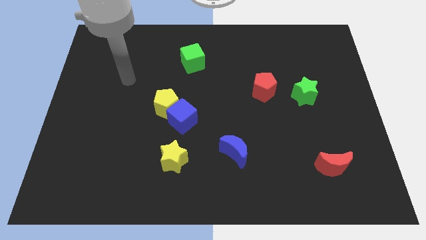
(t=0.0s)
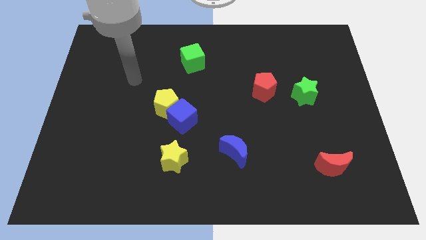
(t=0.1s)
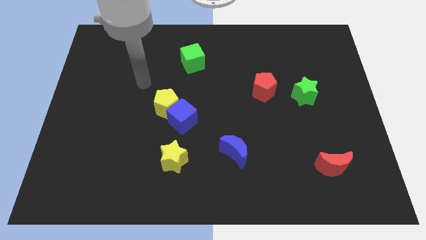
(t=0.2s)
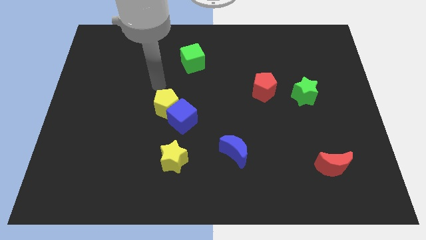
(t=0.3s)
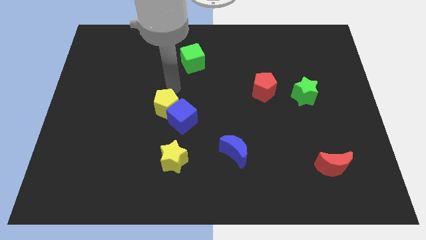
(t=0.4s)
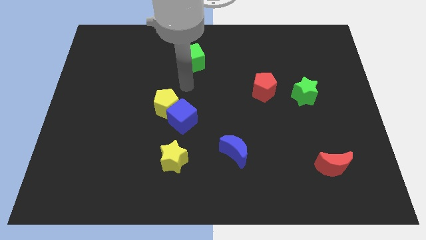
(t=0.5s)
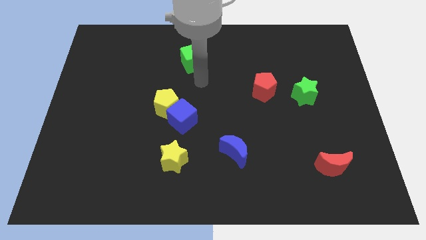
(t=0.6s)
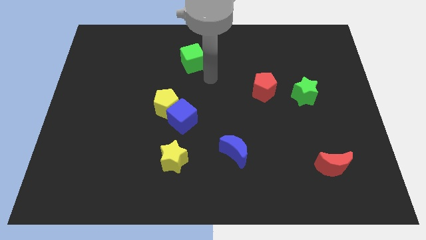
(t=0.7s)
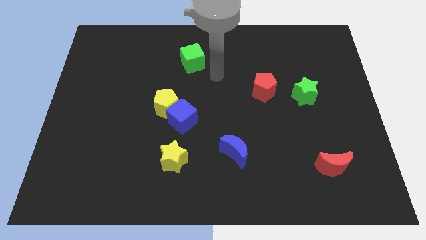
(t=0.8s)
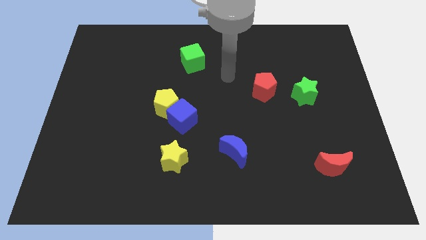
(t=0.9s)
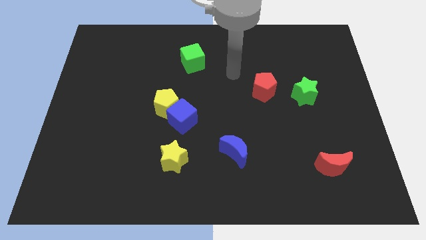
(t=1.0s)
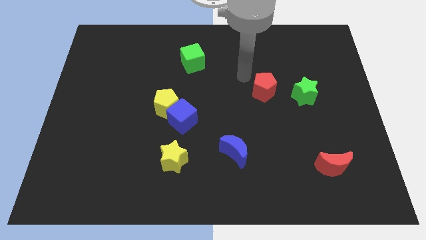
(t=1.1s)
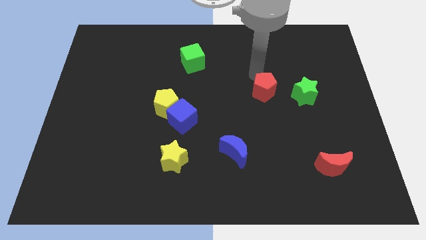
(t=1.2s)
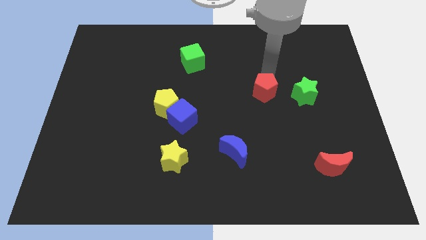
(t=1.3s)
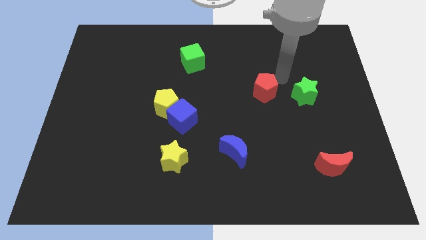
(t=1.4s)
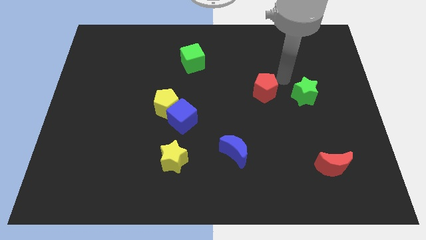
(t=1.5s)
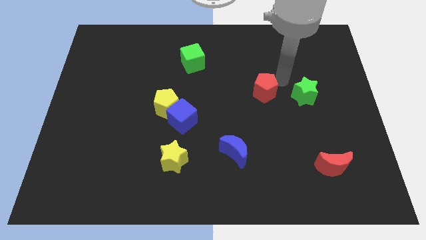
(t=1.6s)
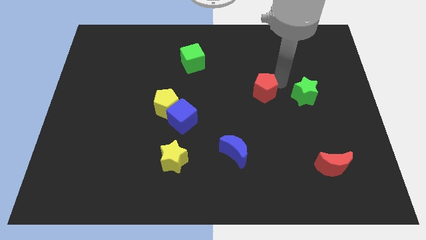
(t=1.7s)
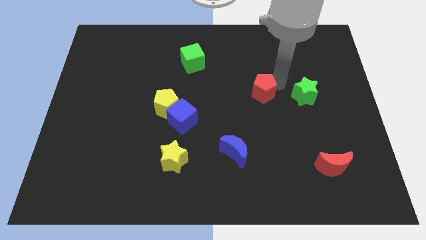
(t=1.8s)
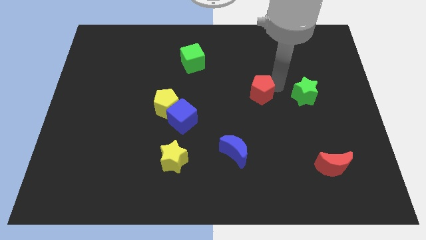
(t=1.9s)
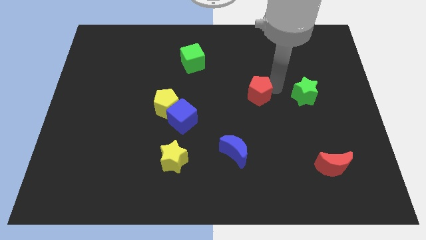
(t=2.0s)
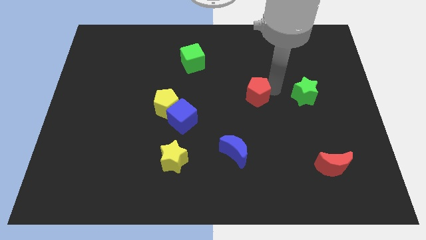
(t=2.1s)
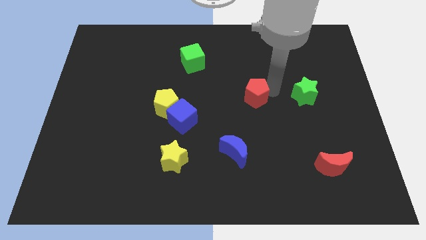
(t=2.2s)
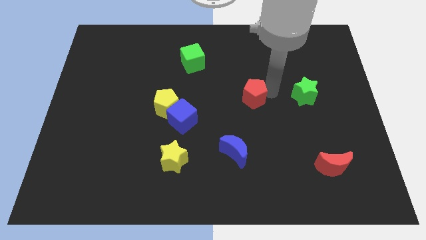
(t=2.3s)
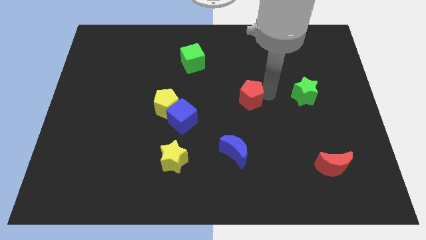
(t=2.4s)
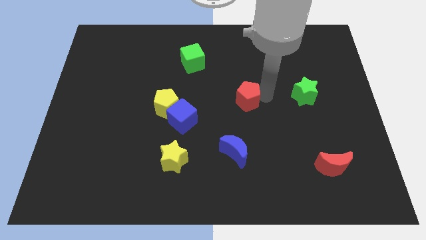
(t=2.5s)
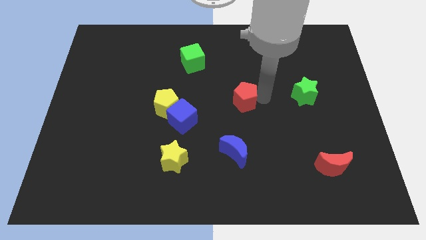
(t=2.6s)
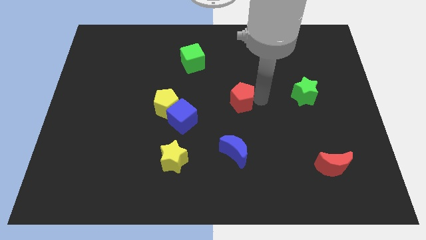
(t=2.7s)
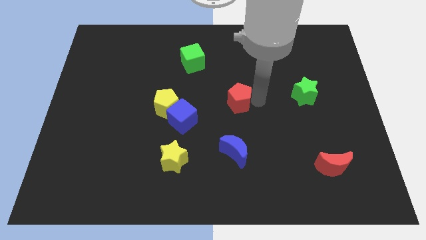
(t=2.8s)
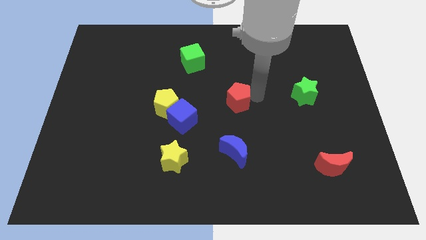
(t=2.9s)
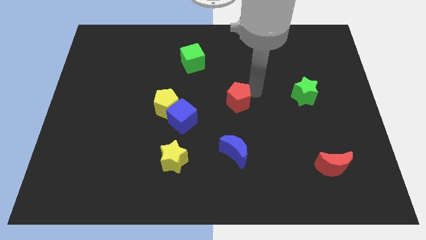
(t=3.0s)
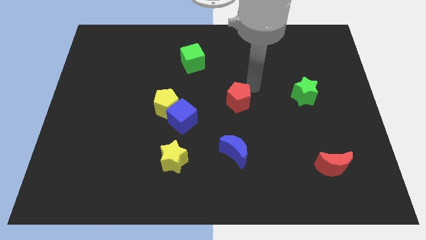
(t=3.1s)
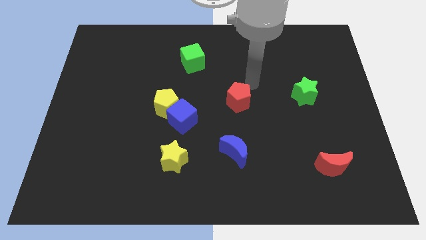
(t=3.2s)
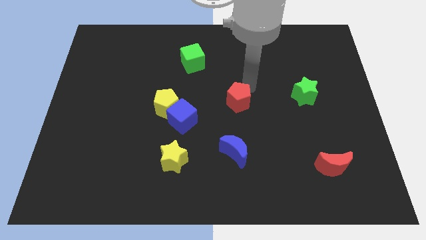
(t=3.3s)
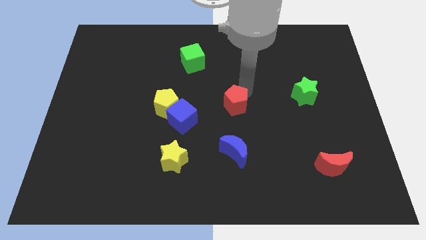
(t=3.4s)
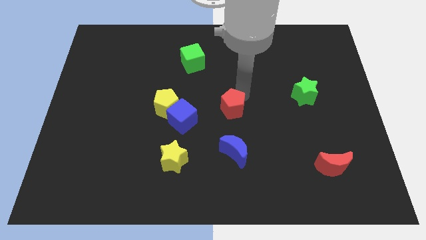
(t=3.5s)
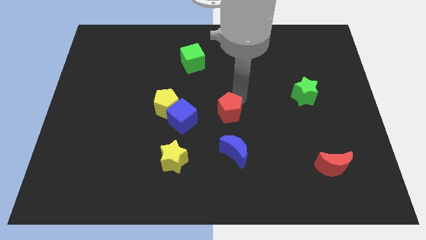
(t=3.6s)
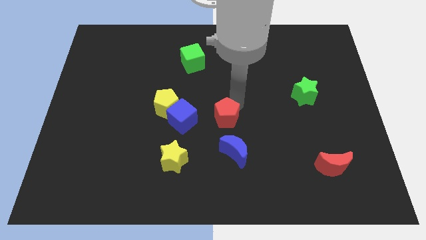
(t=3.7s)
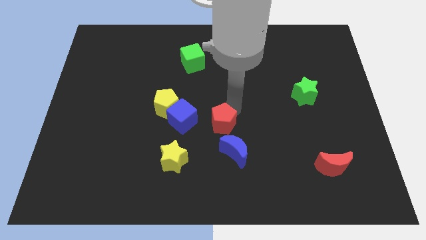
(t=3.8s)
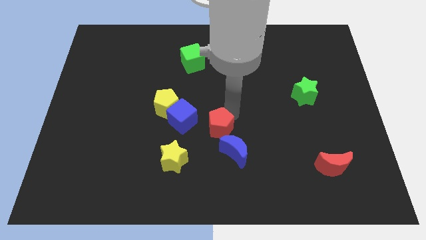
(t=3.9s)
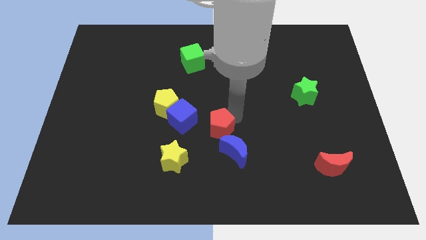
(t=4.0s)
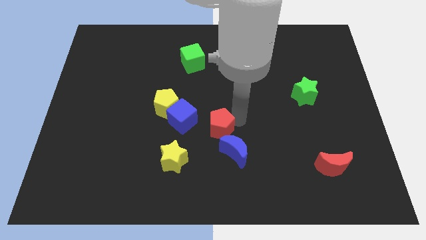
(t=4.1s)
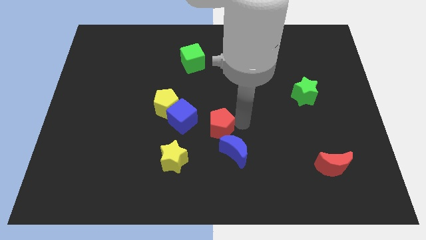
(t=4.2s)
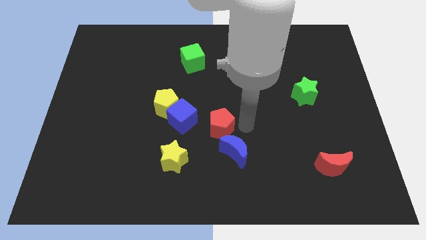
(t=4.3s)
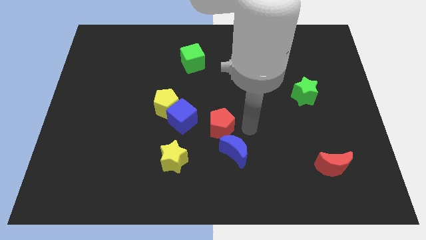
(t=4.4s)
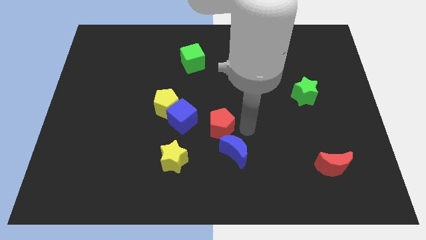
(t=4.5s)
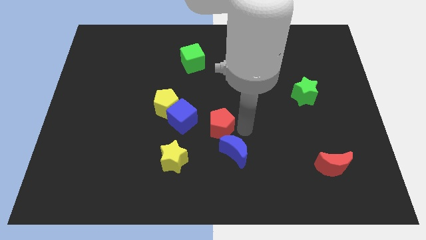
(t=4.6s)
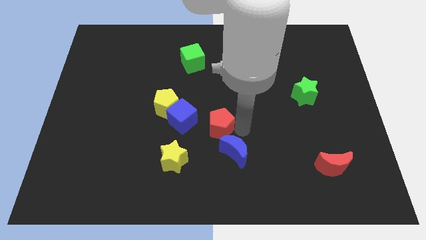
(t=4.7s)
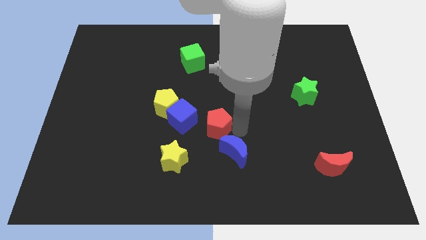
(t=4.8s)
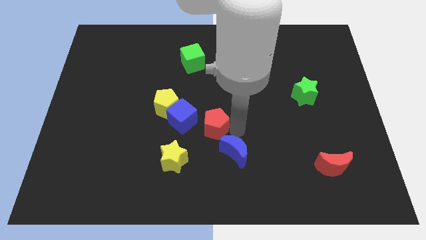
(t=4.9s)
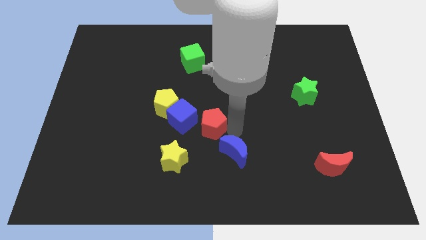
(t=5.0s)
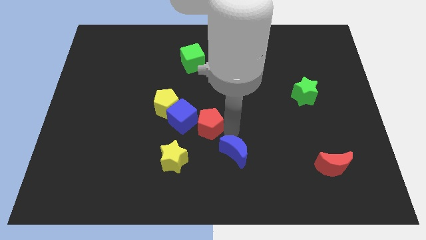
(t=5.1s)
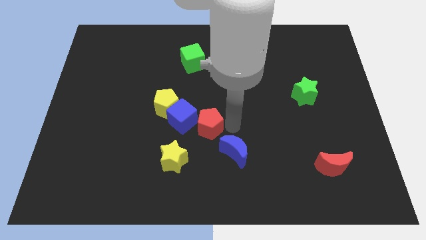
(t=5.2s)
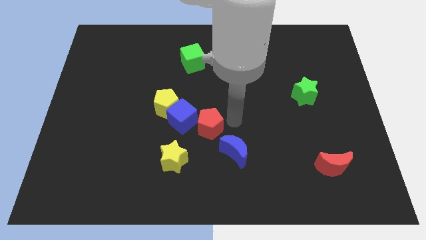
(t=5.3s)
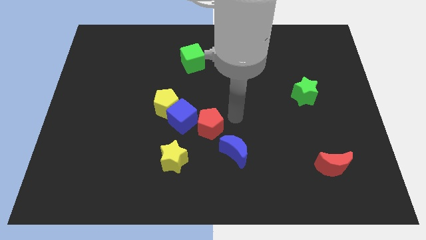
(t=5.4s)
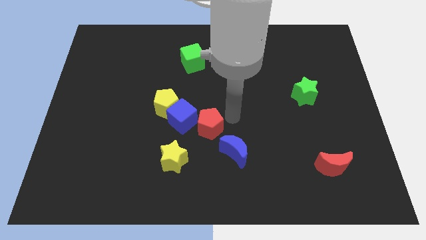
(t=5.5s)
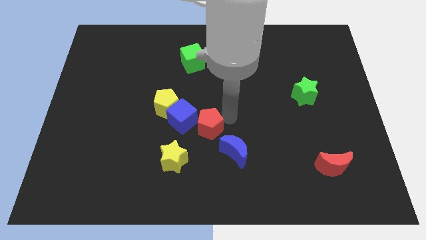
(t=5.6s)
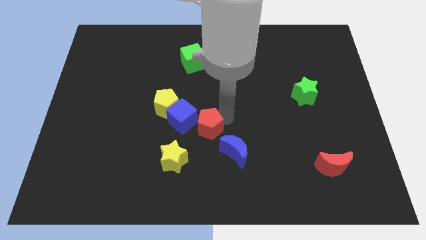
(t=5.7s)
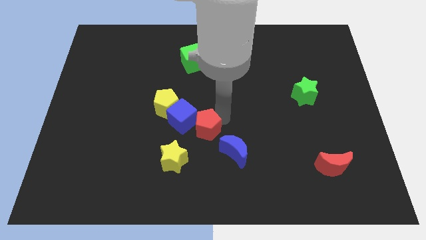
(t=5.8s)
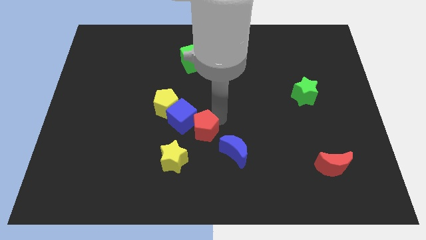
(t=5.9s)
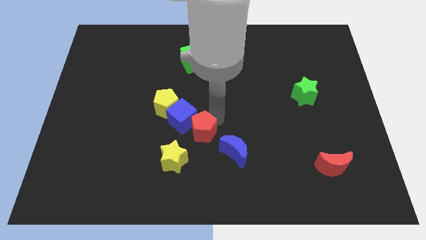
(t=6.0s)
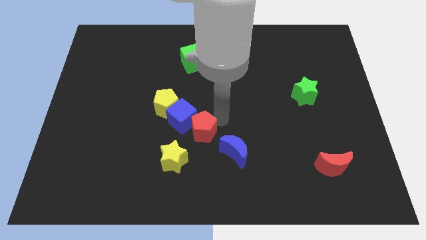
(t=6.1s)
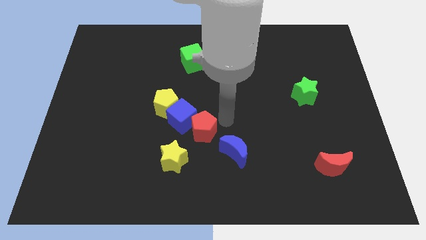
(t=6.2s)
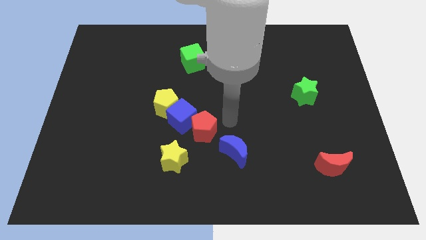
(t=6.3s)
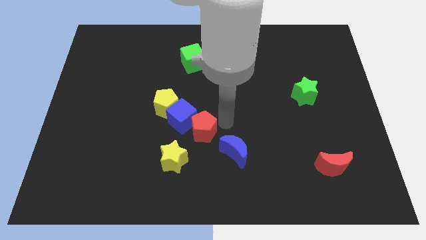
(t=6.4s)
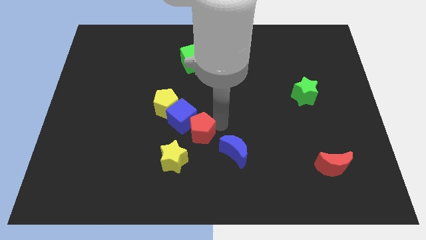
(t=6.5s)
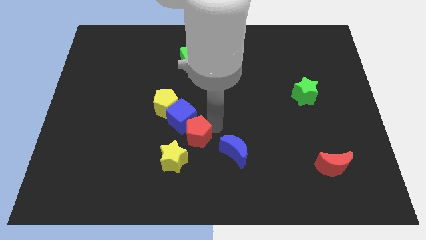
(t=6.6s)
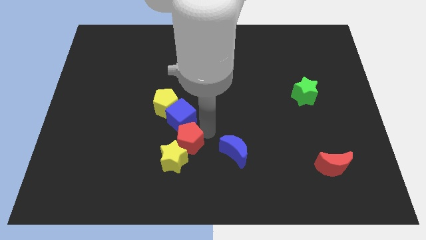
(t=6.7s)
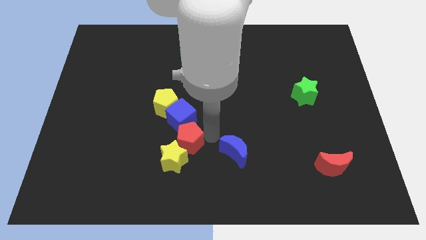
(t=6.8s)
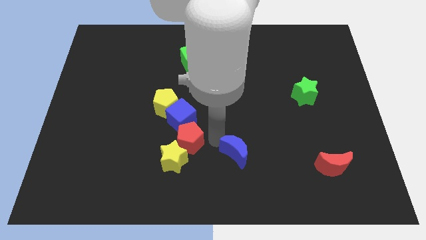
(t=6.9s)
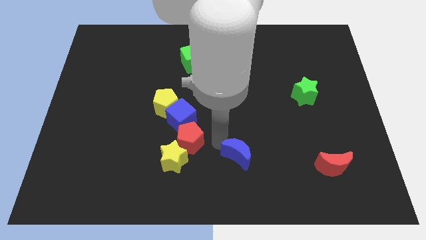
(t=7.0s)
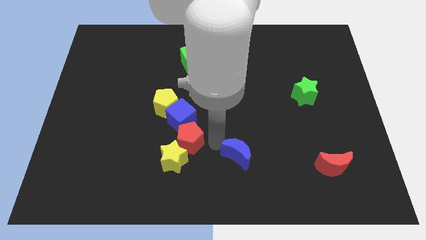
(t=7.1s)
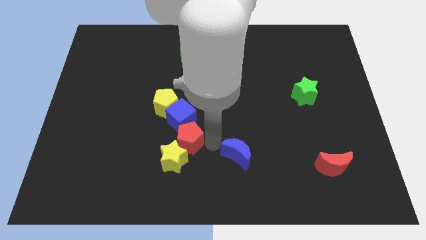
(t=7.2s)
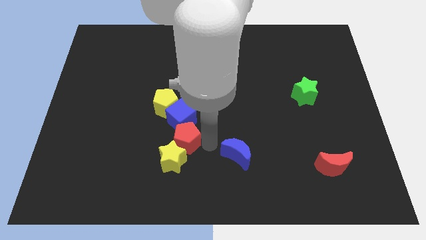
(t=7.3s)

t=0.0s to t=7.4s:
put the red pentagon to the bottom left of the blue cube

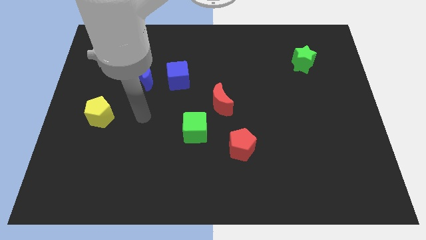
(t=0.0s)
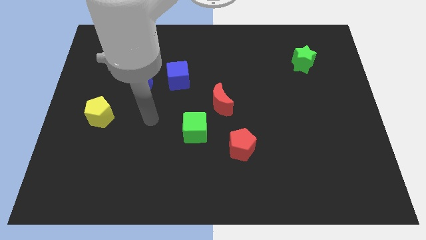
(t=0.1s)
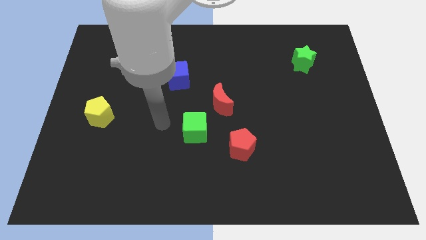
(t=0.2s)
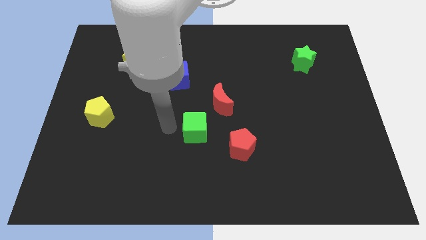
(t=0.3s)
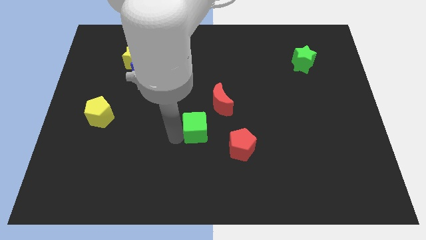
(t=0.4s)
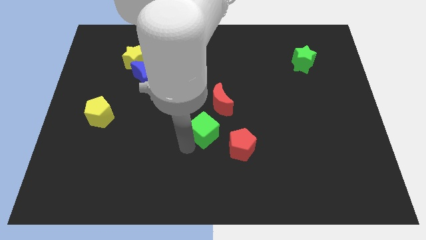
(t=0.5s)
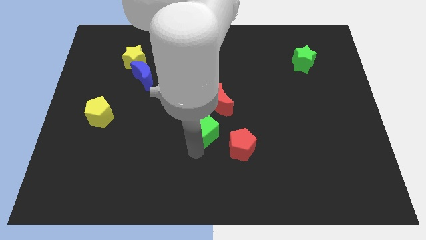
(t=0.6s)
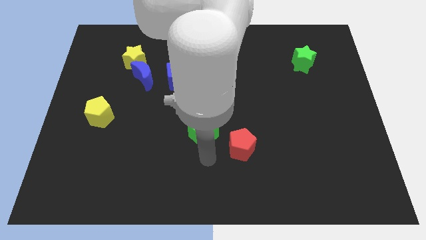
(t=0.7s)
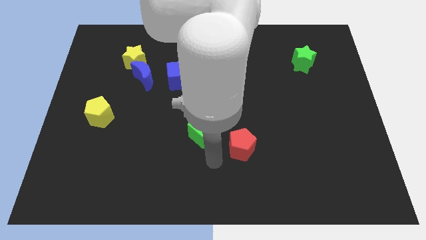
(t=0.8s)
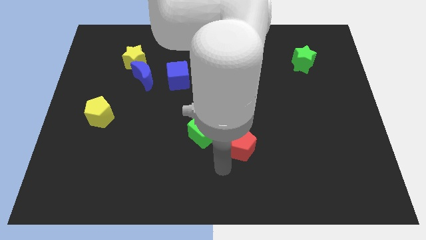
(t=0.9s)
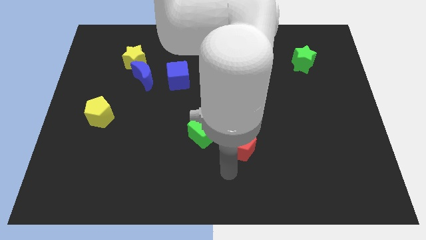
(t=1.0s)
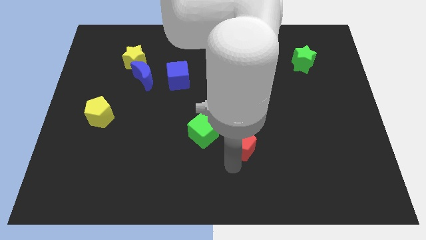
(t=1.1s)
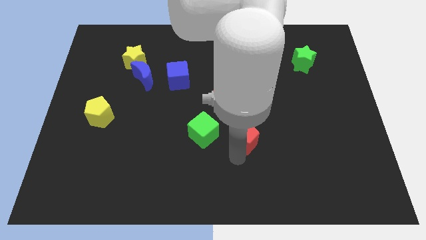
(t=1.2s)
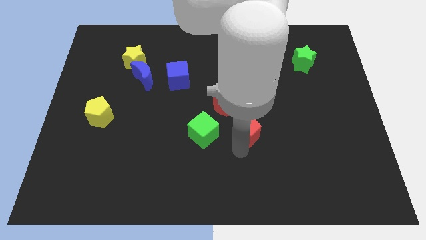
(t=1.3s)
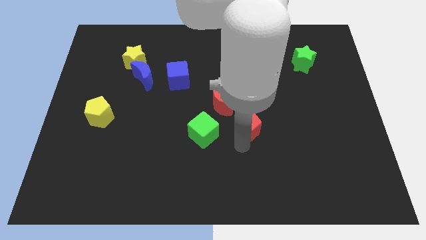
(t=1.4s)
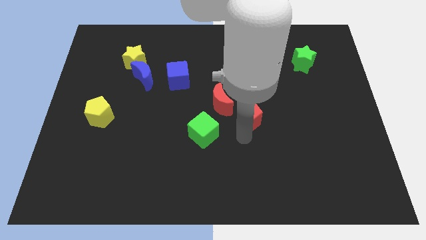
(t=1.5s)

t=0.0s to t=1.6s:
put the red pentagon to the right of the red moon
